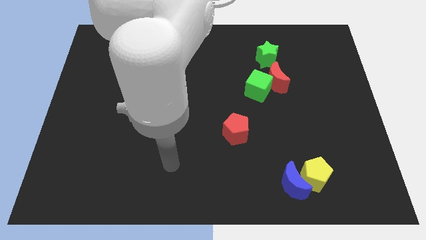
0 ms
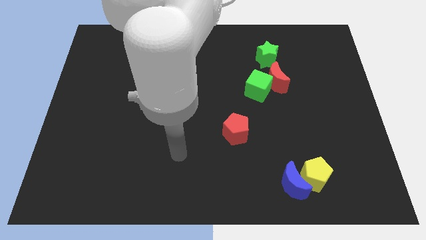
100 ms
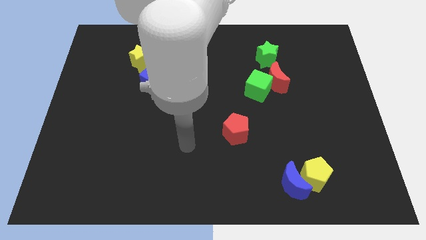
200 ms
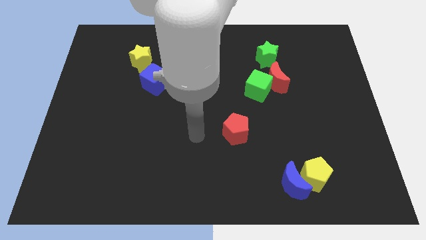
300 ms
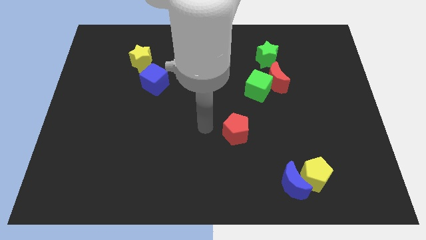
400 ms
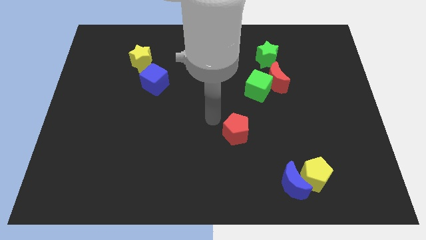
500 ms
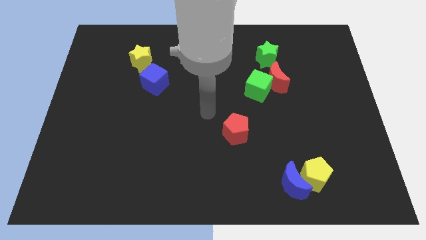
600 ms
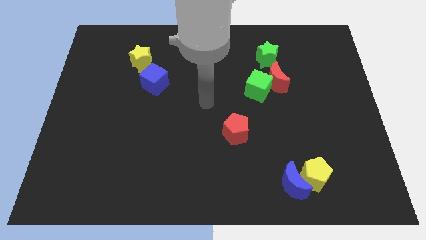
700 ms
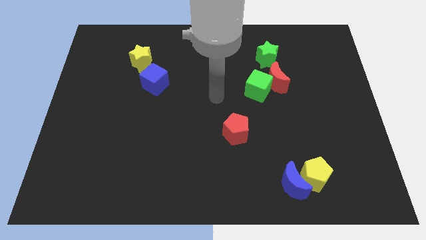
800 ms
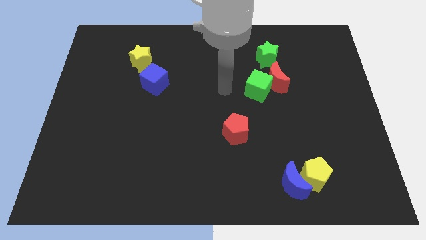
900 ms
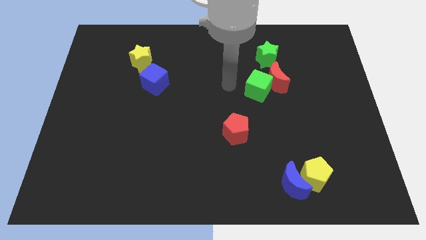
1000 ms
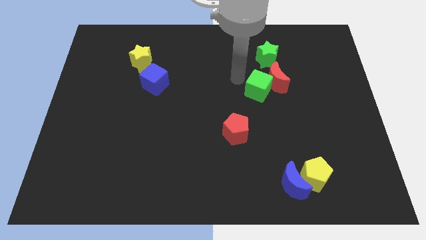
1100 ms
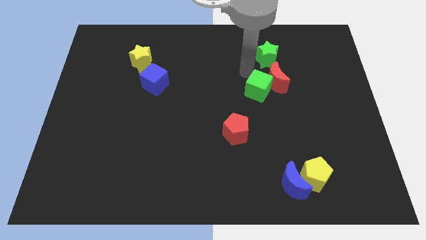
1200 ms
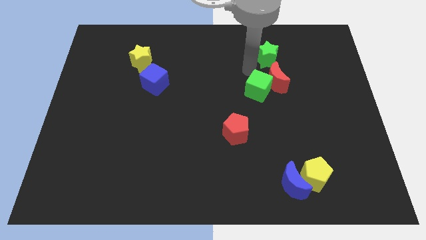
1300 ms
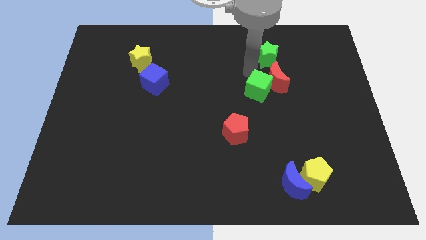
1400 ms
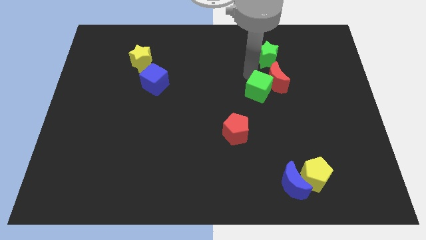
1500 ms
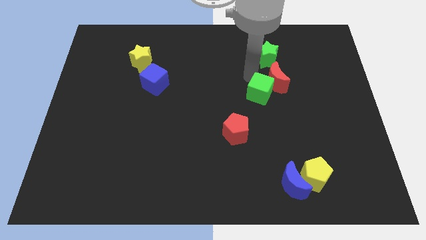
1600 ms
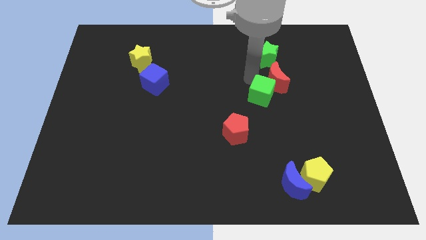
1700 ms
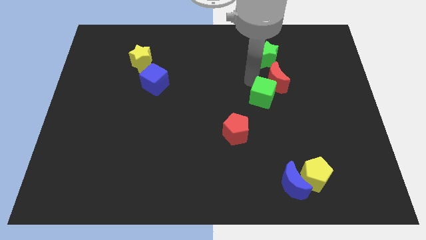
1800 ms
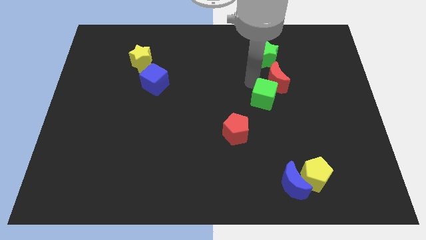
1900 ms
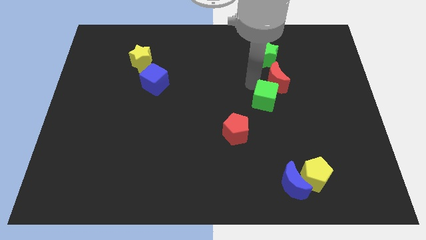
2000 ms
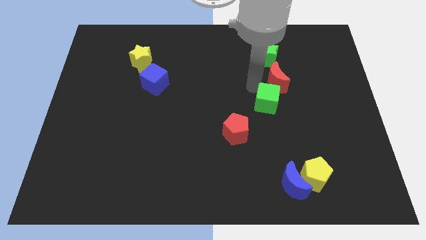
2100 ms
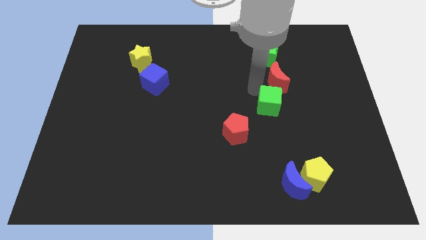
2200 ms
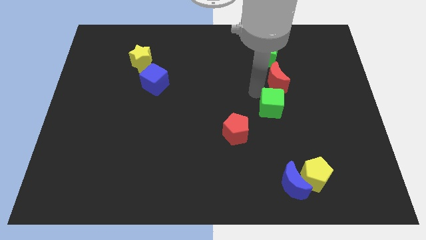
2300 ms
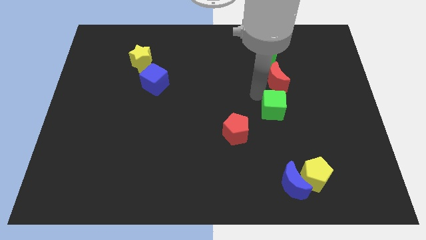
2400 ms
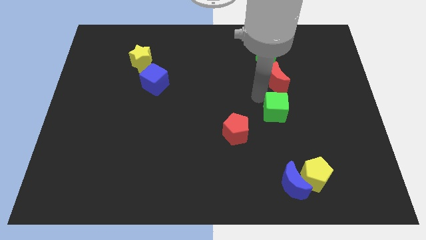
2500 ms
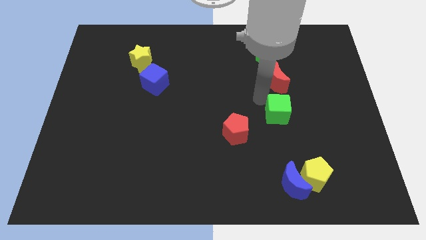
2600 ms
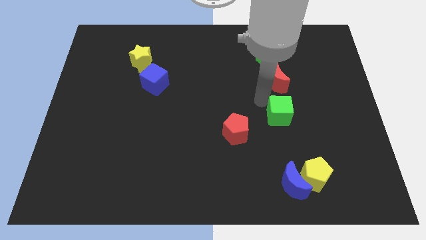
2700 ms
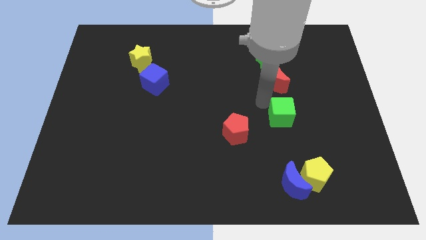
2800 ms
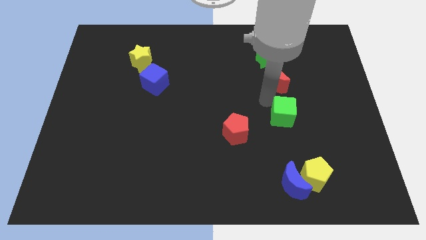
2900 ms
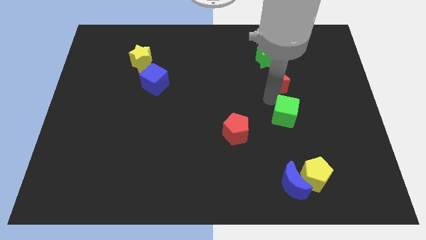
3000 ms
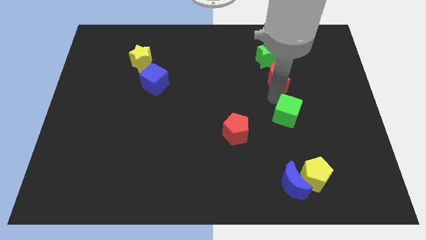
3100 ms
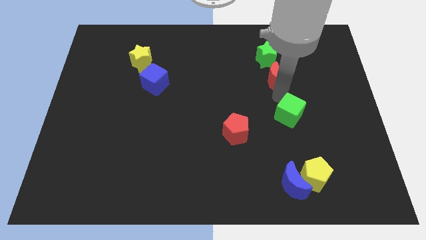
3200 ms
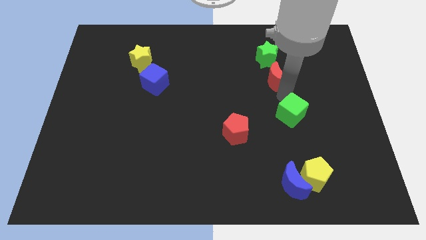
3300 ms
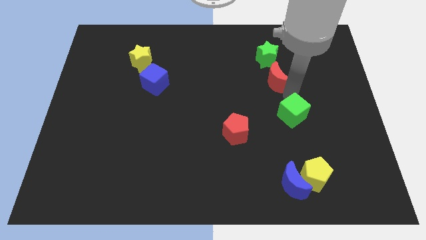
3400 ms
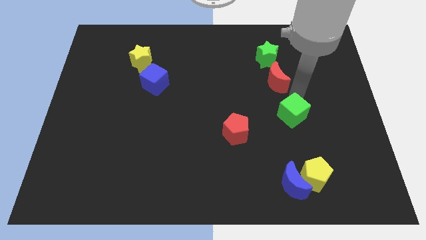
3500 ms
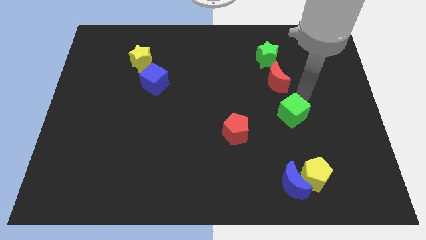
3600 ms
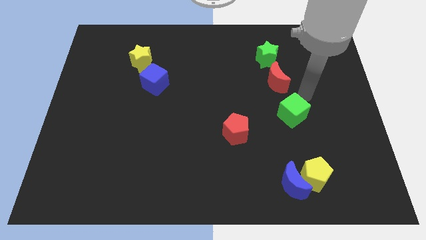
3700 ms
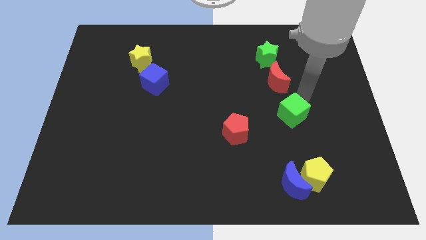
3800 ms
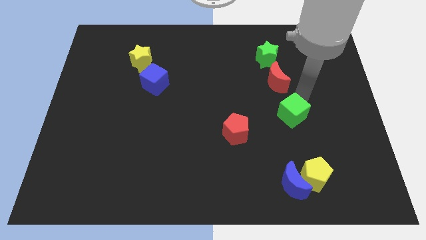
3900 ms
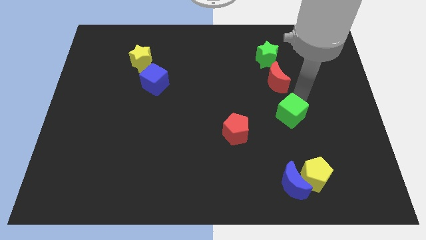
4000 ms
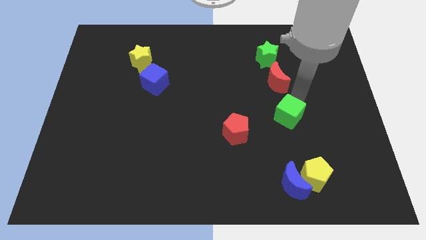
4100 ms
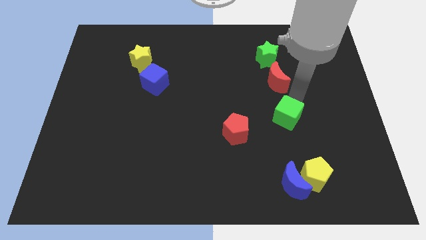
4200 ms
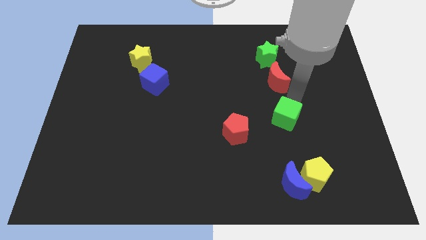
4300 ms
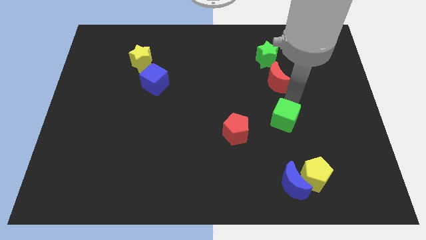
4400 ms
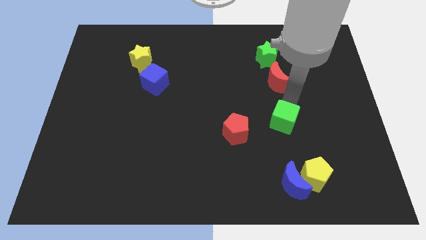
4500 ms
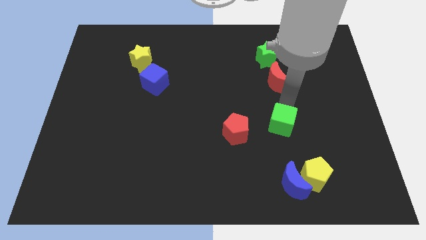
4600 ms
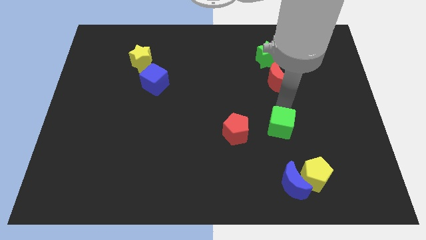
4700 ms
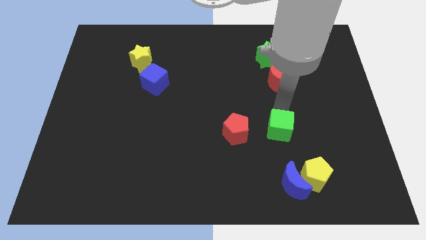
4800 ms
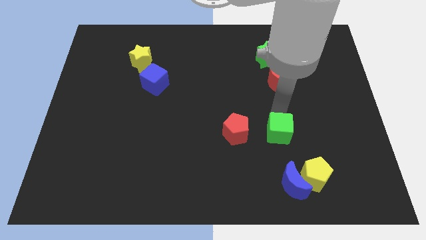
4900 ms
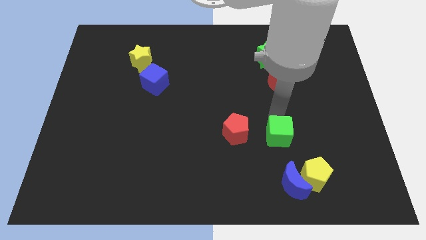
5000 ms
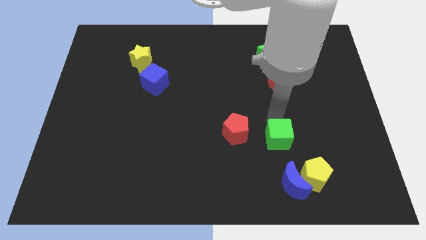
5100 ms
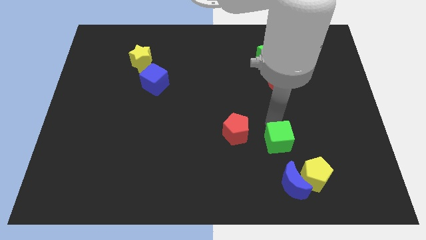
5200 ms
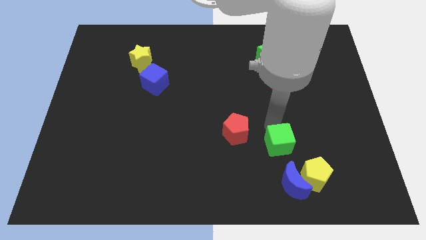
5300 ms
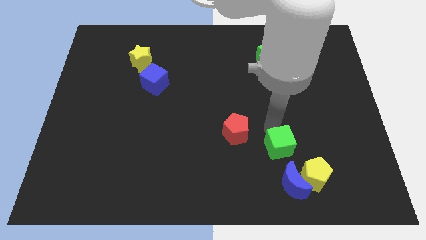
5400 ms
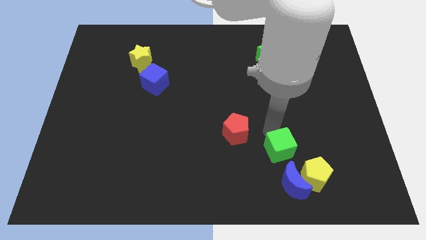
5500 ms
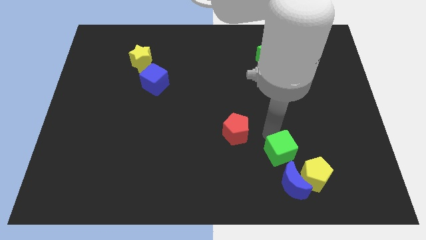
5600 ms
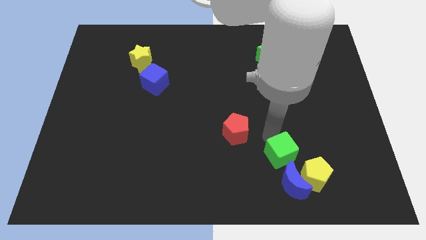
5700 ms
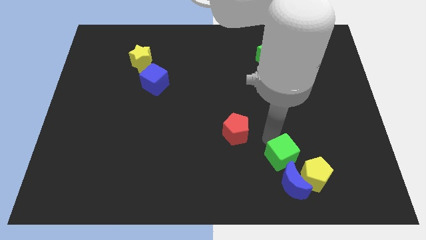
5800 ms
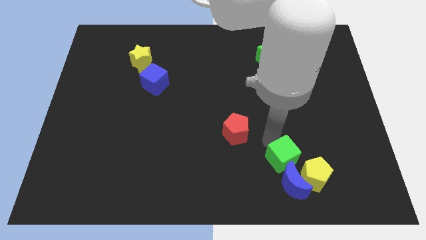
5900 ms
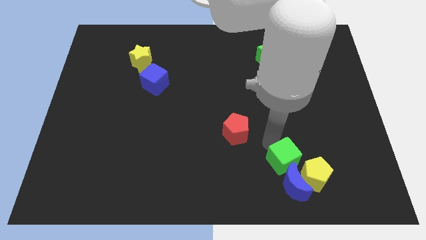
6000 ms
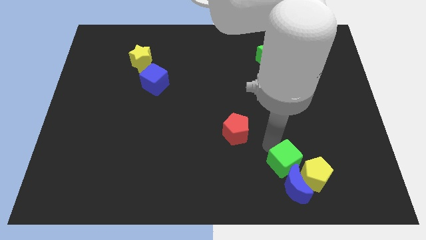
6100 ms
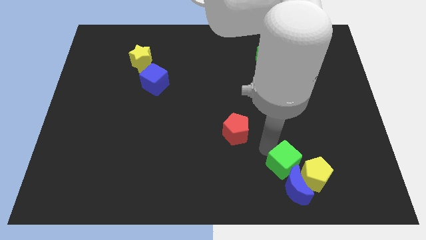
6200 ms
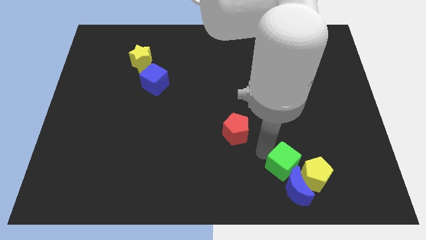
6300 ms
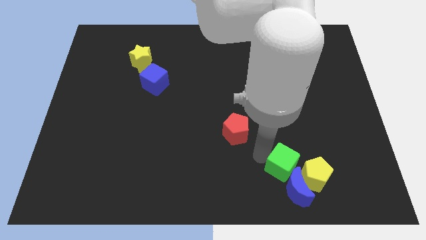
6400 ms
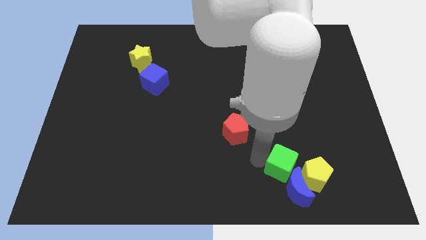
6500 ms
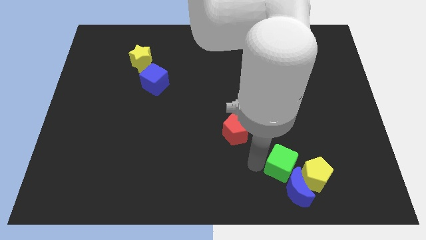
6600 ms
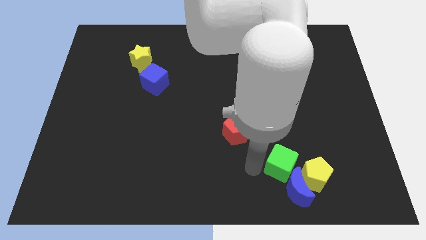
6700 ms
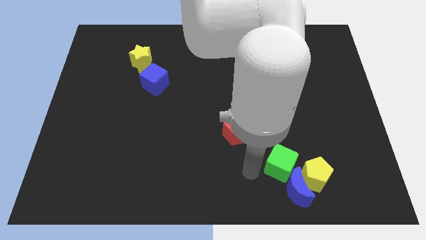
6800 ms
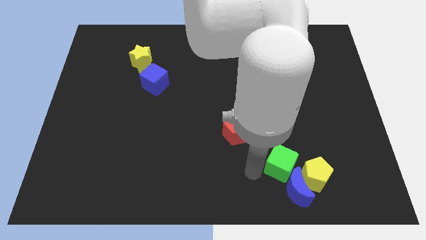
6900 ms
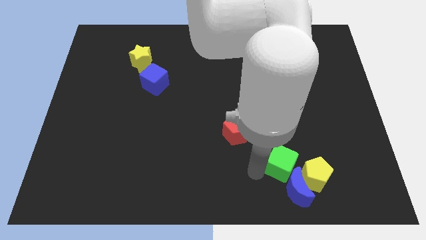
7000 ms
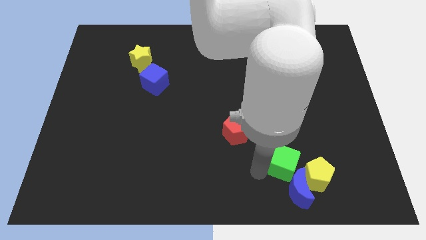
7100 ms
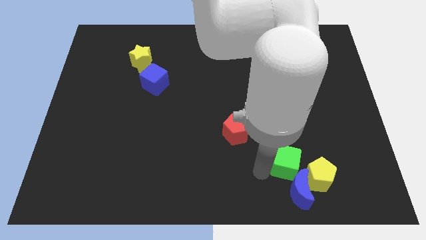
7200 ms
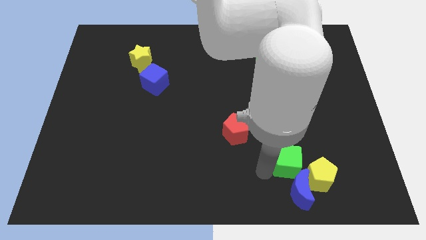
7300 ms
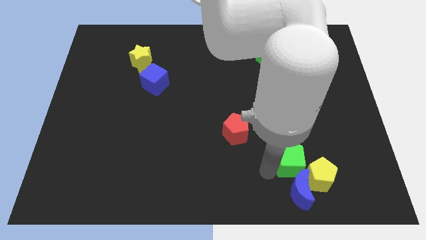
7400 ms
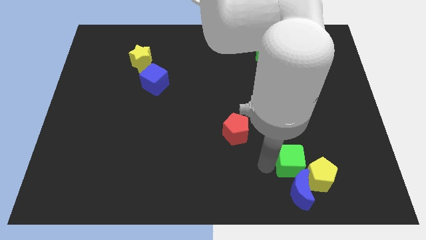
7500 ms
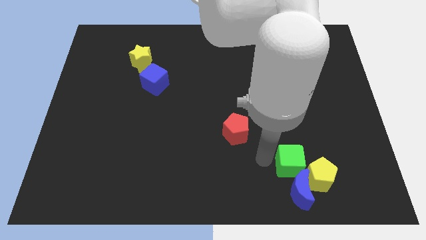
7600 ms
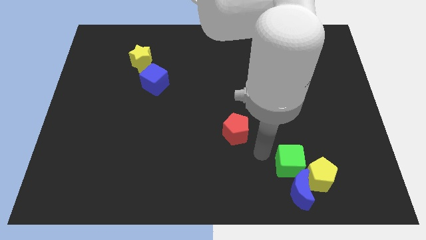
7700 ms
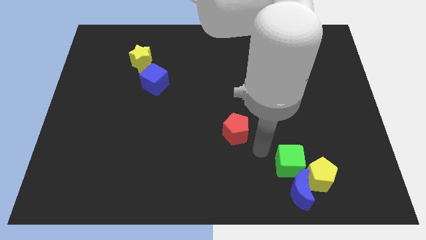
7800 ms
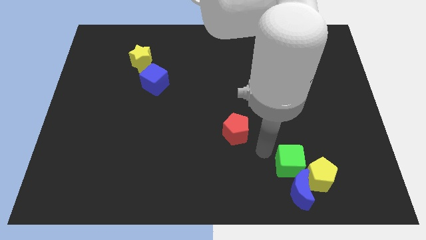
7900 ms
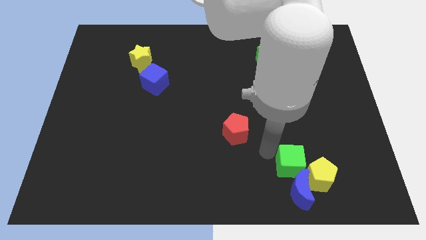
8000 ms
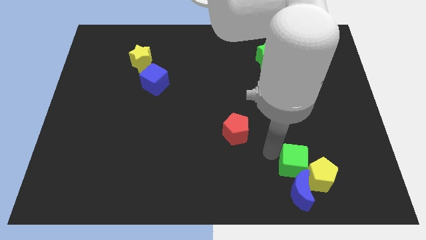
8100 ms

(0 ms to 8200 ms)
put the green cube towards the yellow pentagon
